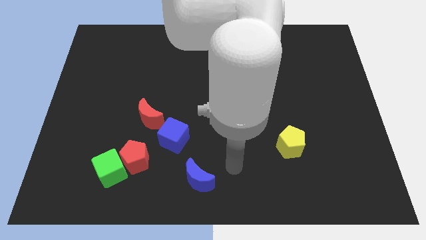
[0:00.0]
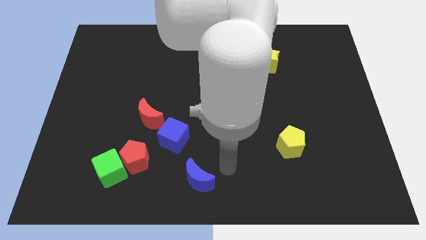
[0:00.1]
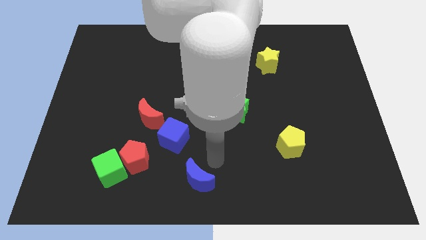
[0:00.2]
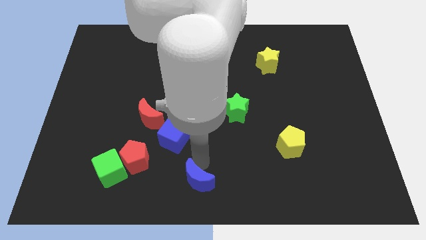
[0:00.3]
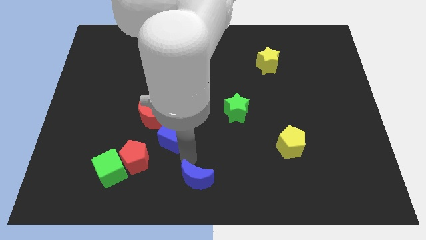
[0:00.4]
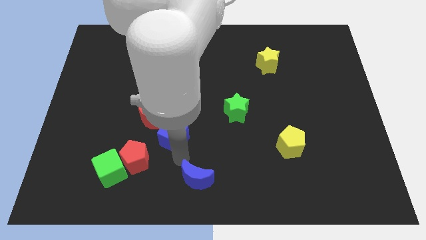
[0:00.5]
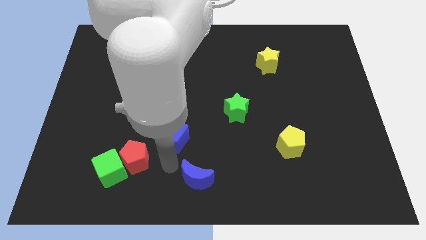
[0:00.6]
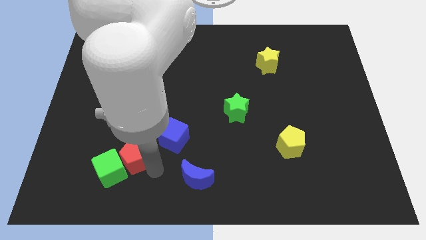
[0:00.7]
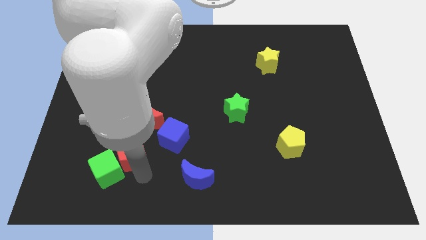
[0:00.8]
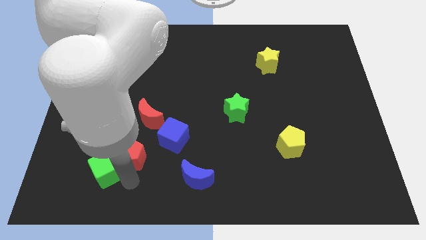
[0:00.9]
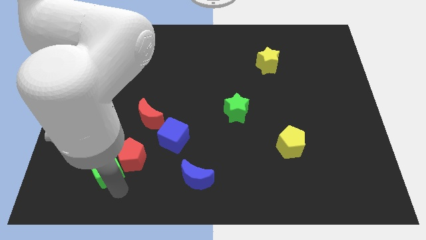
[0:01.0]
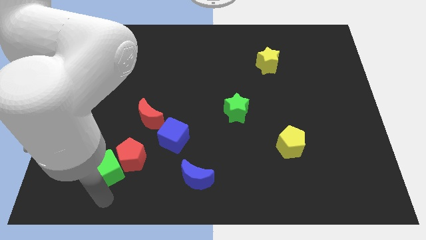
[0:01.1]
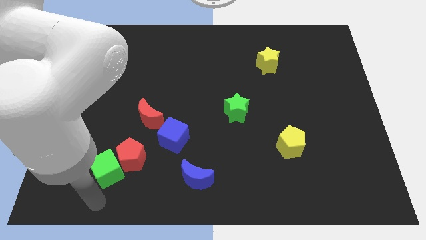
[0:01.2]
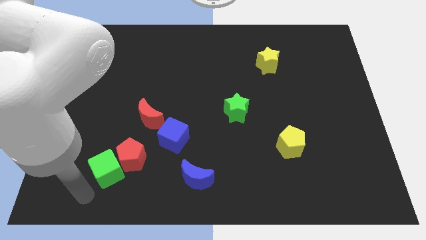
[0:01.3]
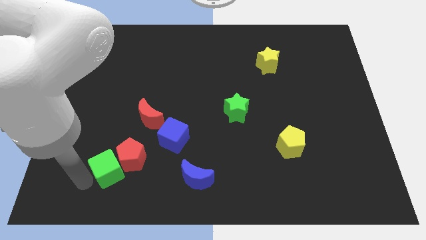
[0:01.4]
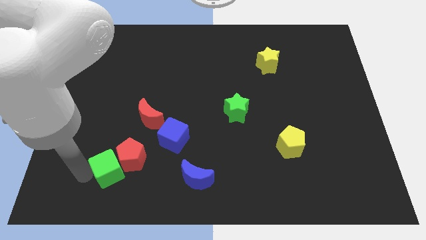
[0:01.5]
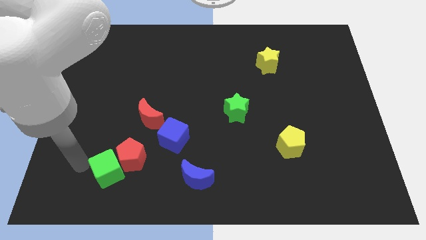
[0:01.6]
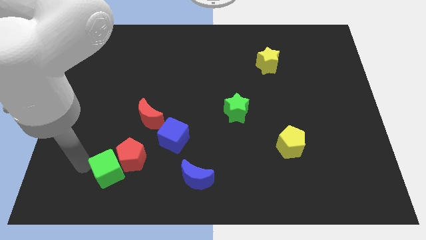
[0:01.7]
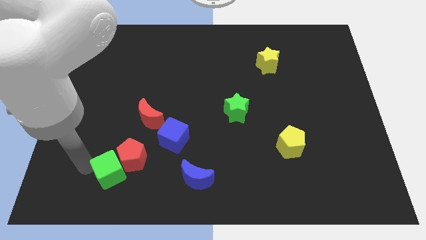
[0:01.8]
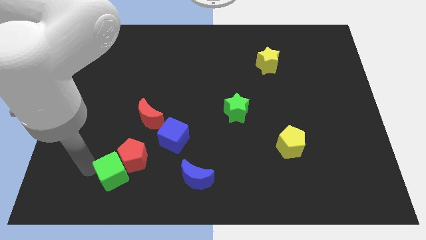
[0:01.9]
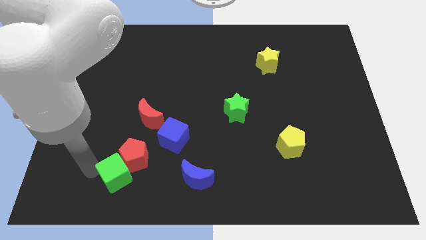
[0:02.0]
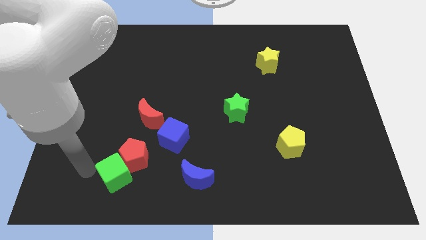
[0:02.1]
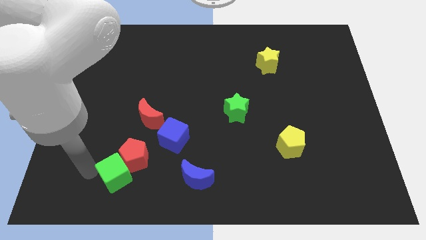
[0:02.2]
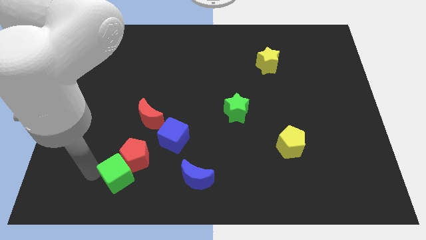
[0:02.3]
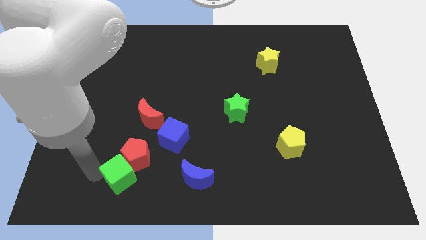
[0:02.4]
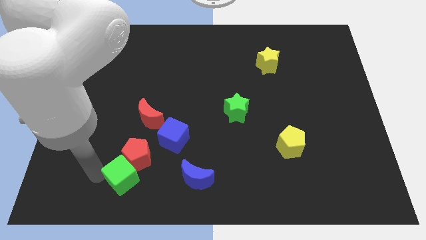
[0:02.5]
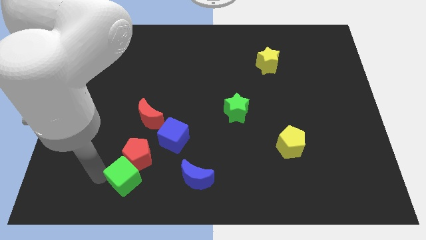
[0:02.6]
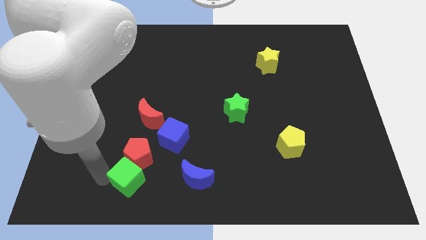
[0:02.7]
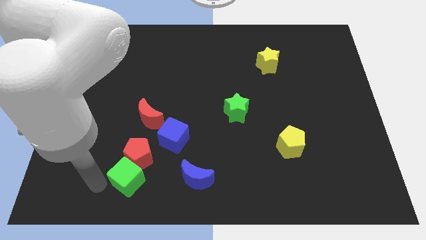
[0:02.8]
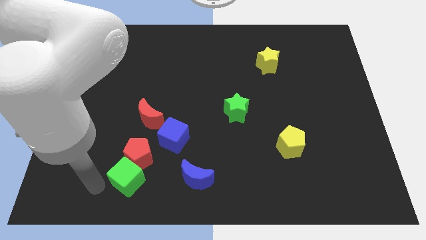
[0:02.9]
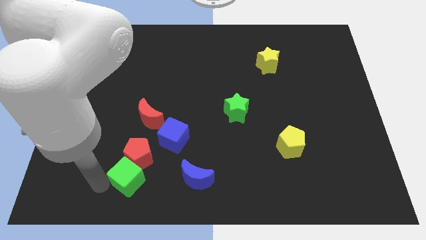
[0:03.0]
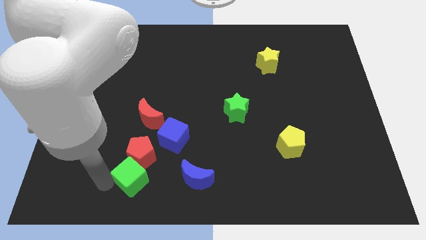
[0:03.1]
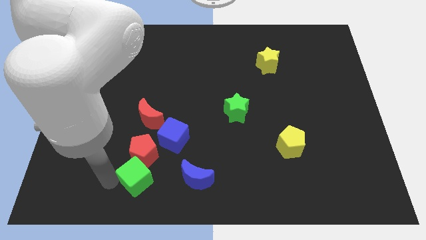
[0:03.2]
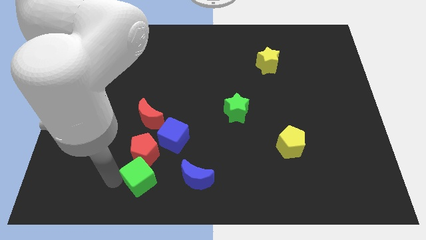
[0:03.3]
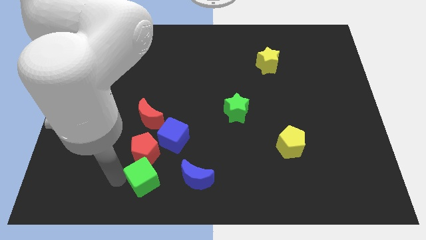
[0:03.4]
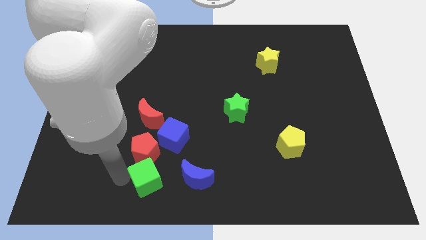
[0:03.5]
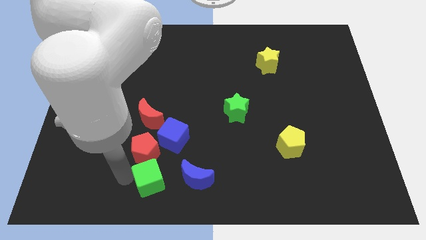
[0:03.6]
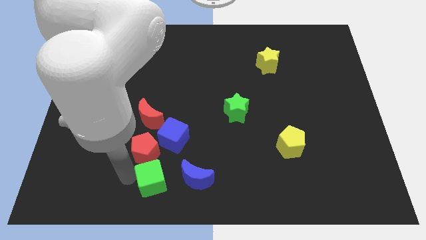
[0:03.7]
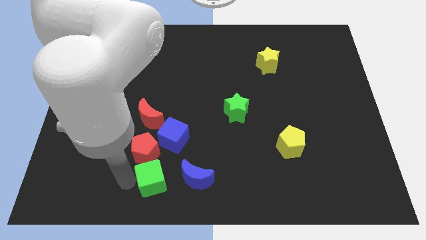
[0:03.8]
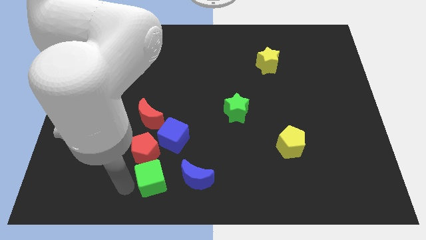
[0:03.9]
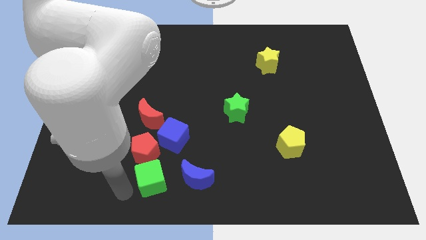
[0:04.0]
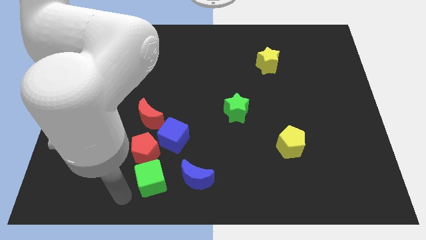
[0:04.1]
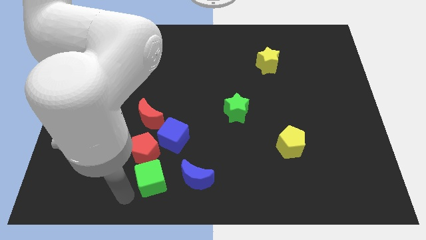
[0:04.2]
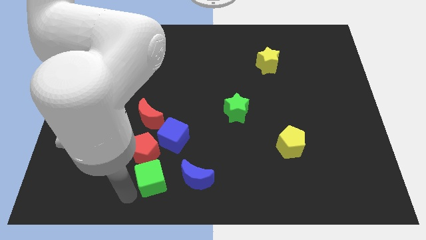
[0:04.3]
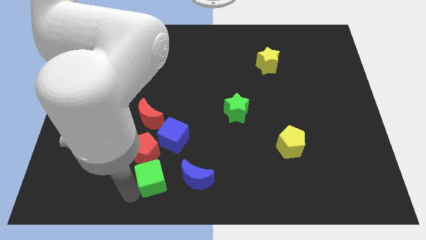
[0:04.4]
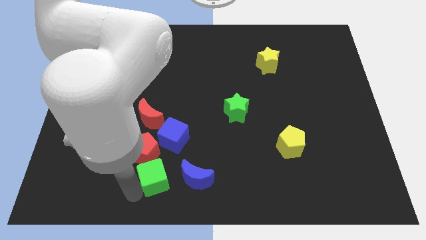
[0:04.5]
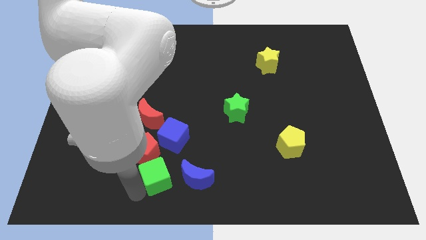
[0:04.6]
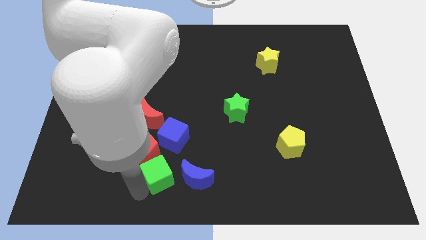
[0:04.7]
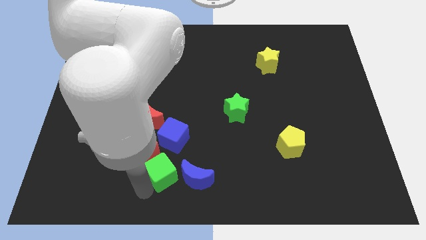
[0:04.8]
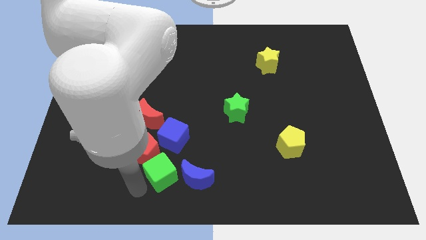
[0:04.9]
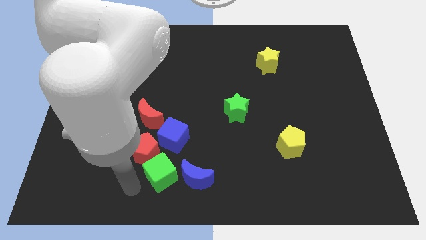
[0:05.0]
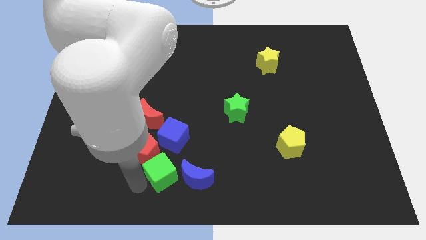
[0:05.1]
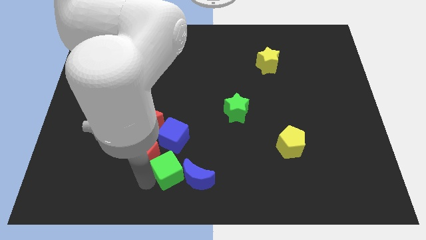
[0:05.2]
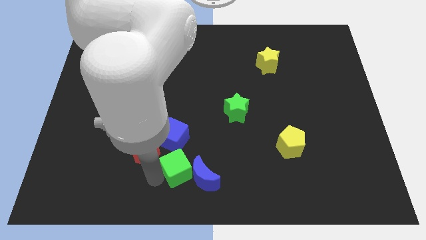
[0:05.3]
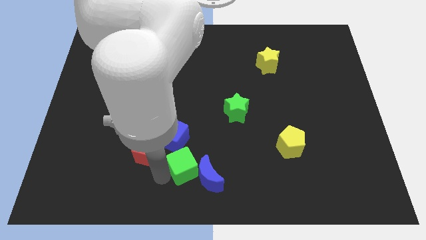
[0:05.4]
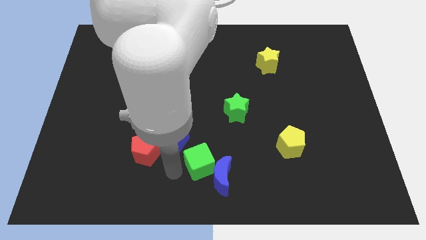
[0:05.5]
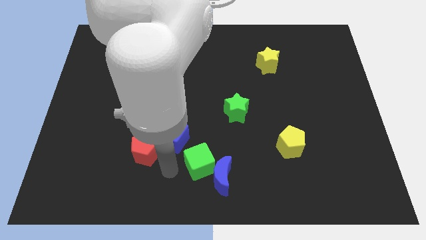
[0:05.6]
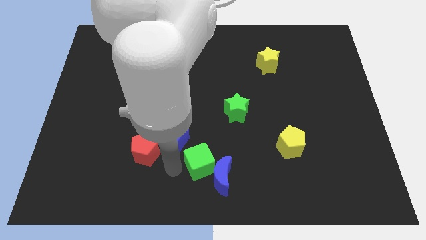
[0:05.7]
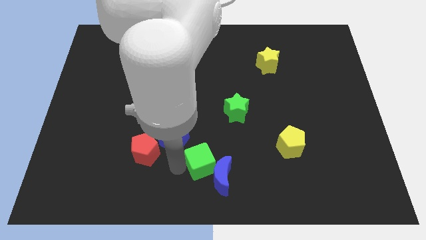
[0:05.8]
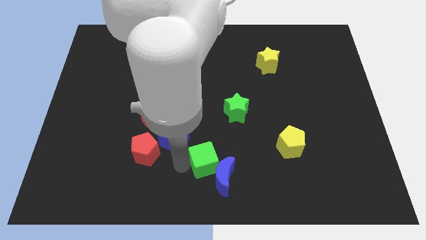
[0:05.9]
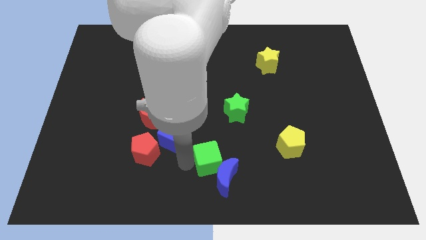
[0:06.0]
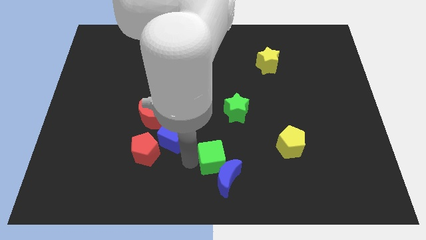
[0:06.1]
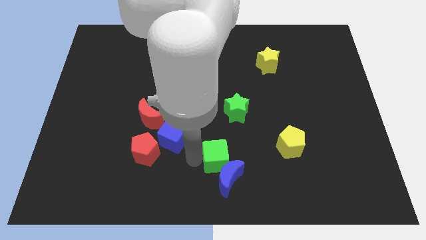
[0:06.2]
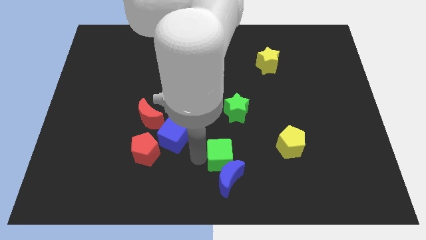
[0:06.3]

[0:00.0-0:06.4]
slide the green cube to the top right of the blue moon
